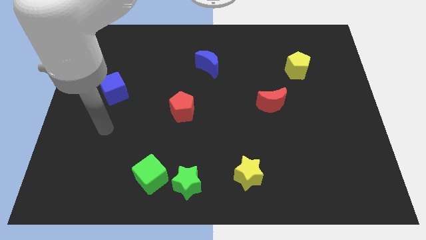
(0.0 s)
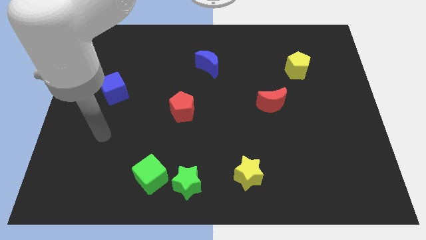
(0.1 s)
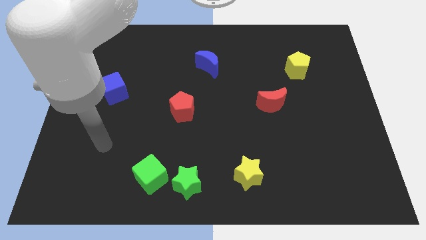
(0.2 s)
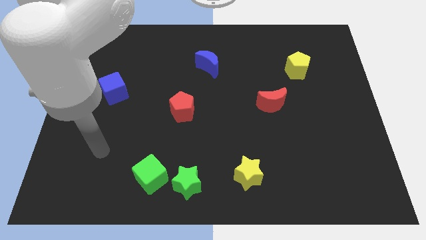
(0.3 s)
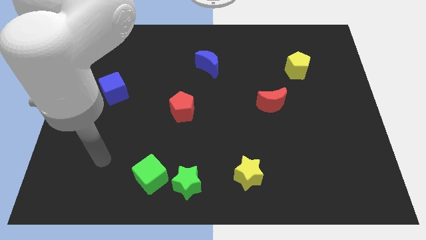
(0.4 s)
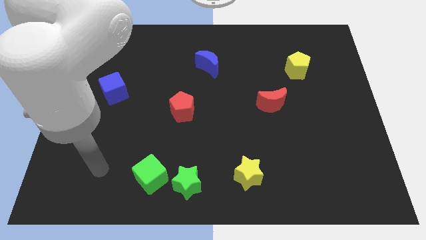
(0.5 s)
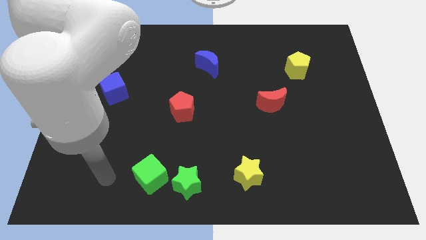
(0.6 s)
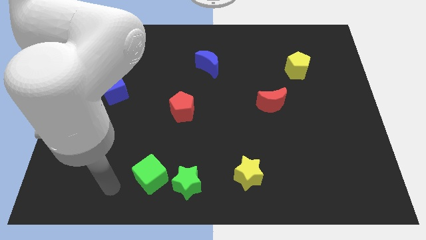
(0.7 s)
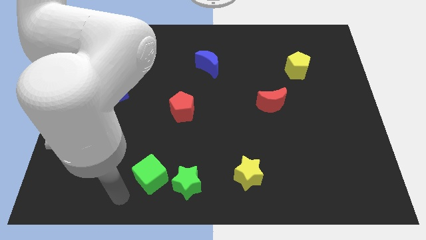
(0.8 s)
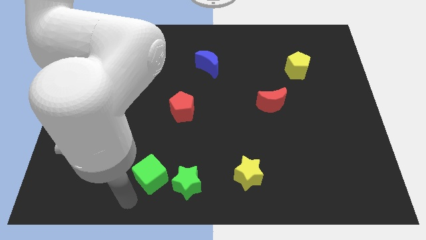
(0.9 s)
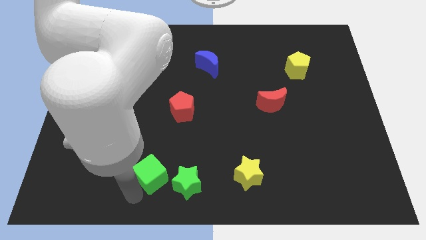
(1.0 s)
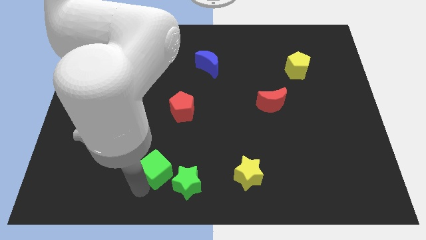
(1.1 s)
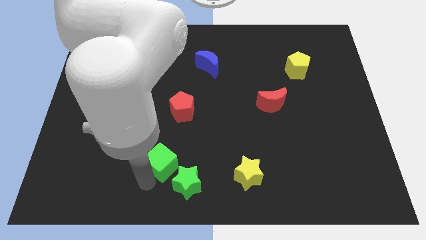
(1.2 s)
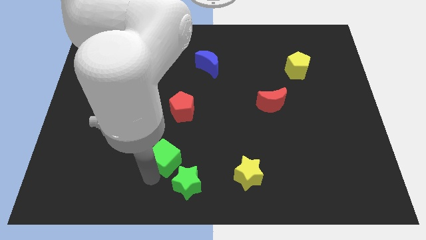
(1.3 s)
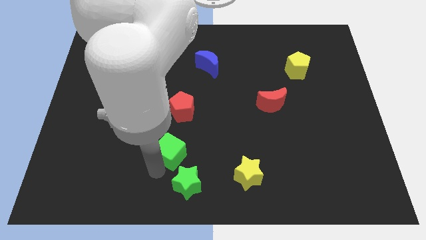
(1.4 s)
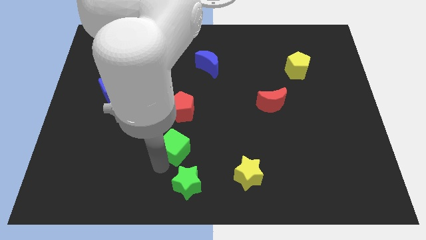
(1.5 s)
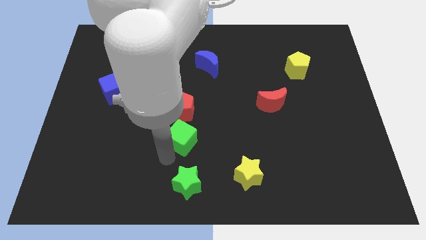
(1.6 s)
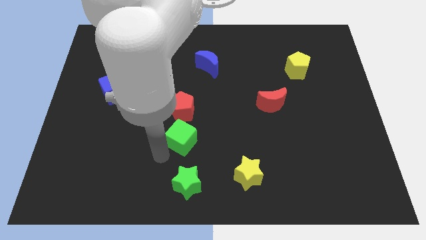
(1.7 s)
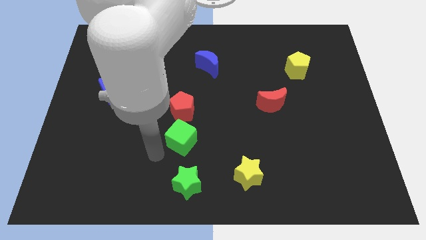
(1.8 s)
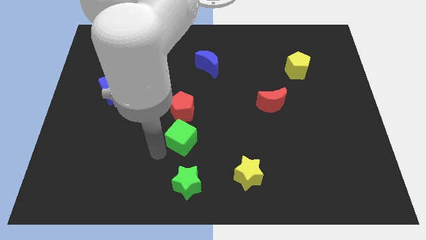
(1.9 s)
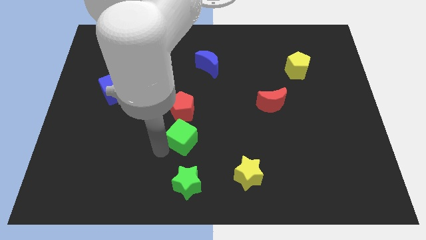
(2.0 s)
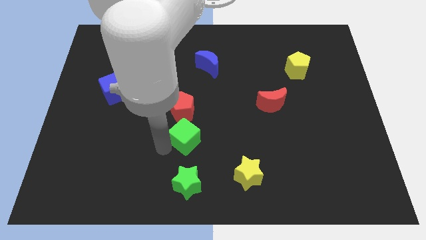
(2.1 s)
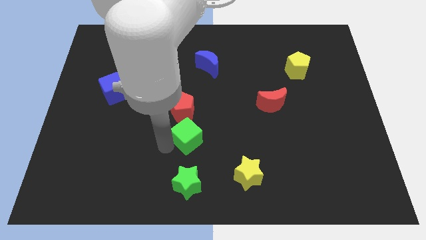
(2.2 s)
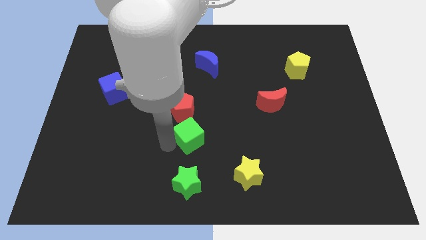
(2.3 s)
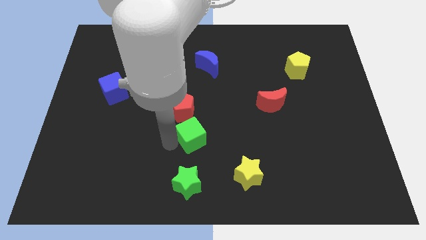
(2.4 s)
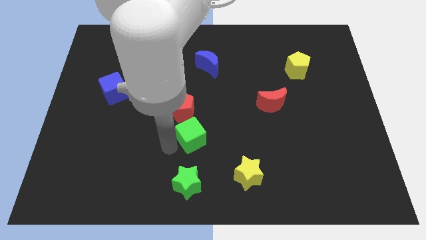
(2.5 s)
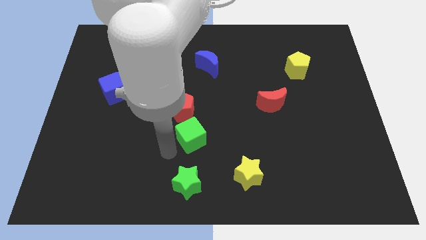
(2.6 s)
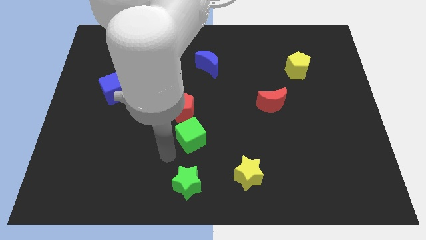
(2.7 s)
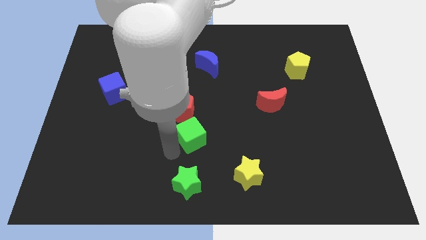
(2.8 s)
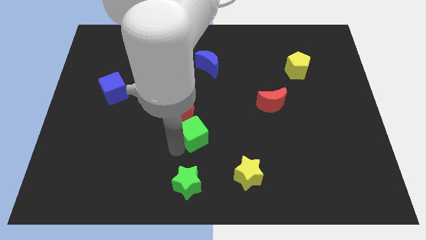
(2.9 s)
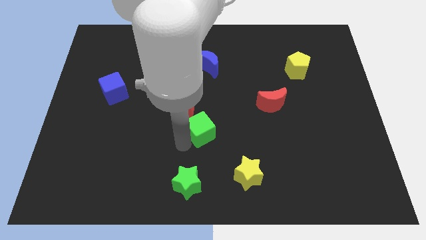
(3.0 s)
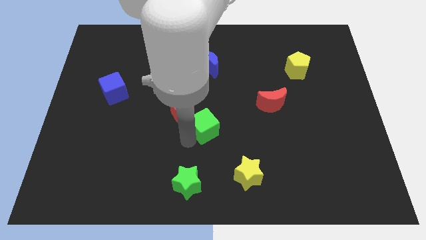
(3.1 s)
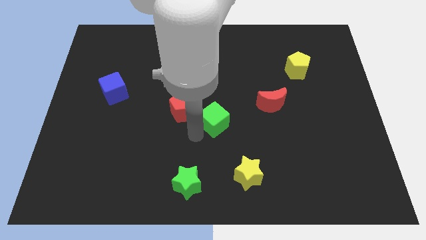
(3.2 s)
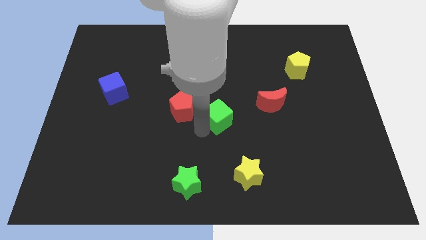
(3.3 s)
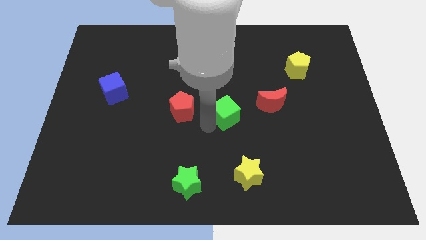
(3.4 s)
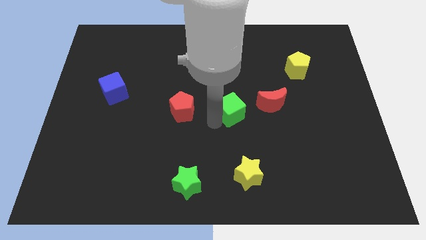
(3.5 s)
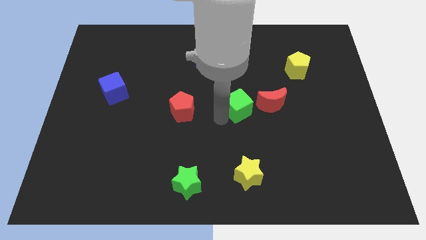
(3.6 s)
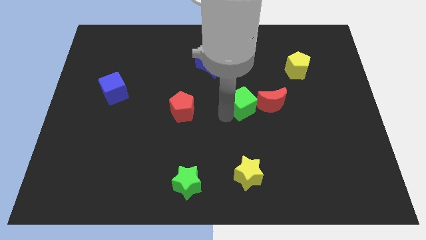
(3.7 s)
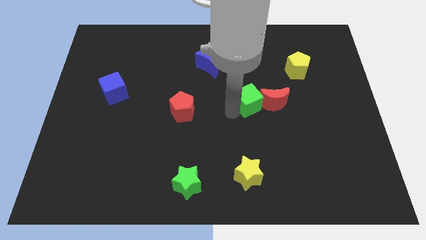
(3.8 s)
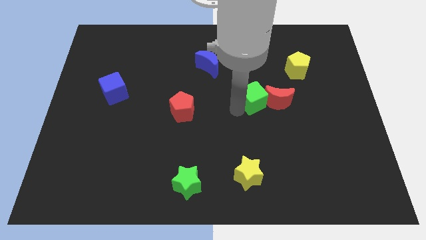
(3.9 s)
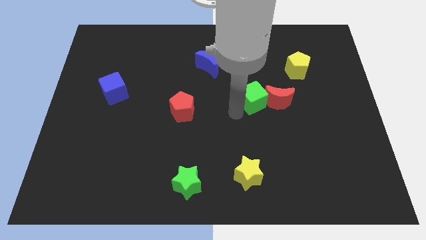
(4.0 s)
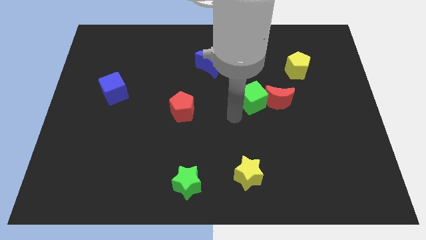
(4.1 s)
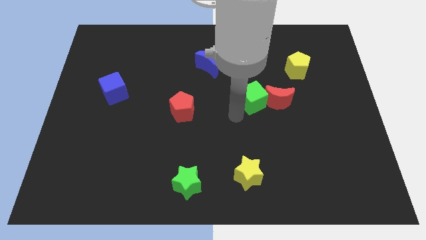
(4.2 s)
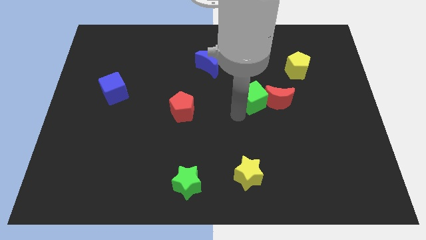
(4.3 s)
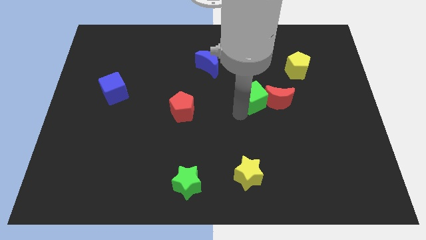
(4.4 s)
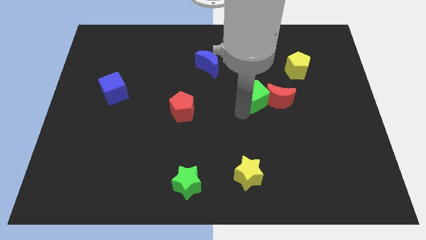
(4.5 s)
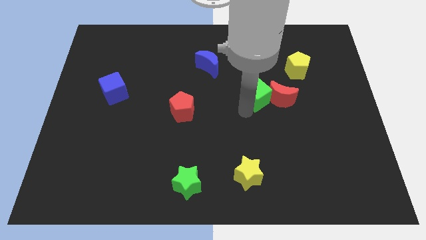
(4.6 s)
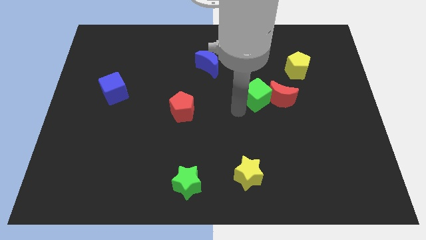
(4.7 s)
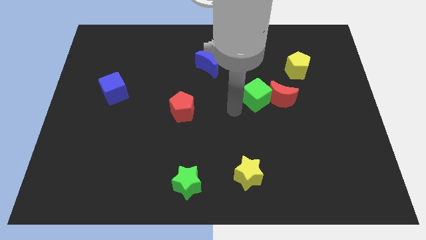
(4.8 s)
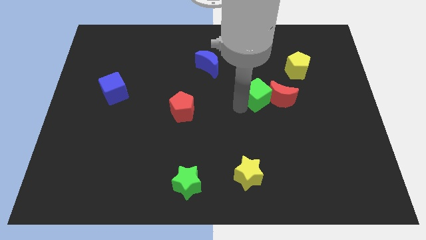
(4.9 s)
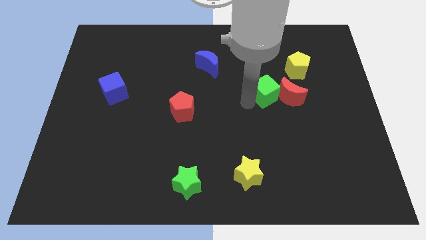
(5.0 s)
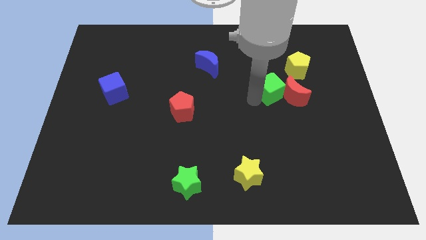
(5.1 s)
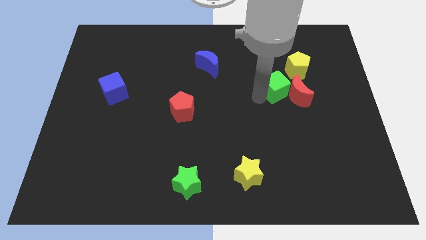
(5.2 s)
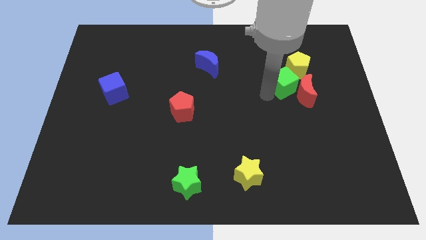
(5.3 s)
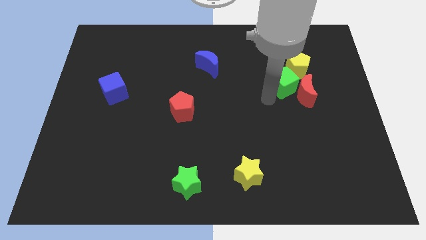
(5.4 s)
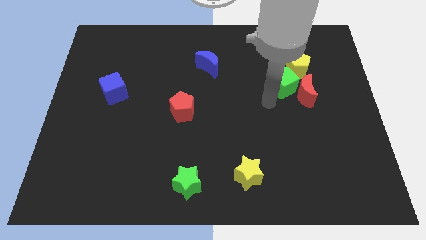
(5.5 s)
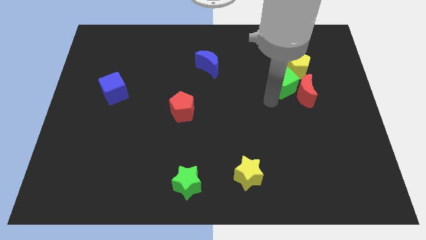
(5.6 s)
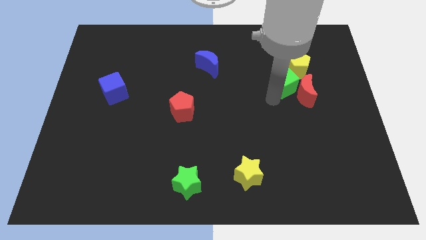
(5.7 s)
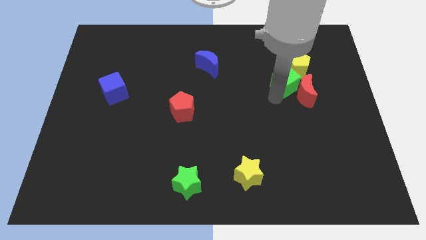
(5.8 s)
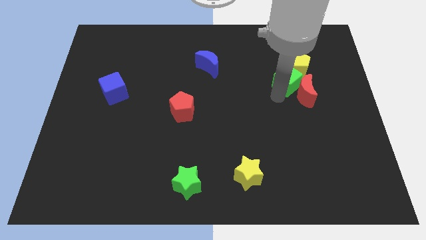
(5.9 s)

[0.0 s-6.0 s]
put the green cube next to the yellow pentagon
